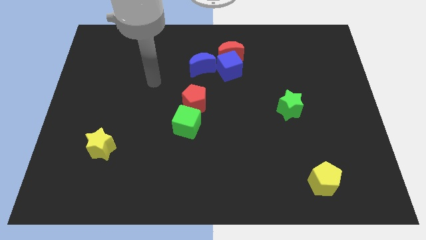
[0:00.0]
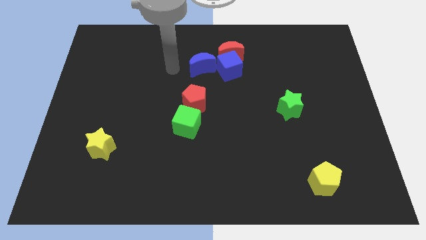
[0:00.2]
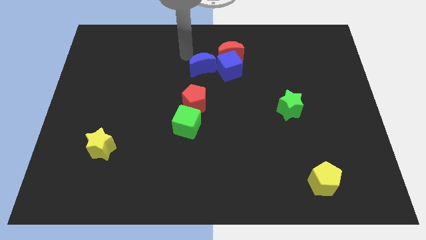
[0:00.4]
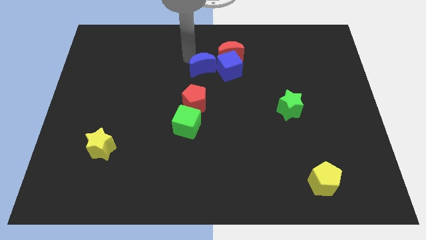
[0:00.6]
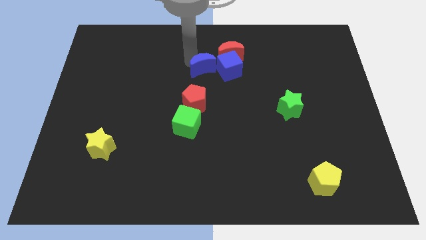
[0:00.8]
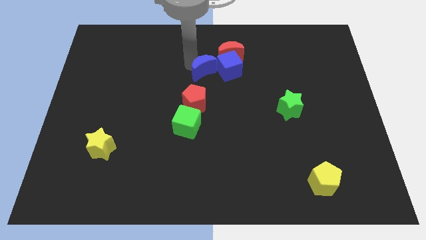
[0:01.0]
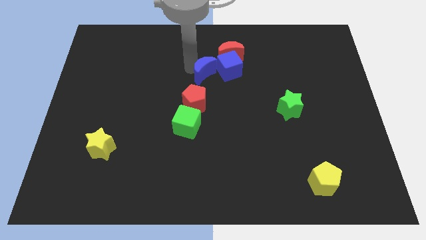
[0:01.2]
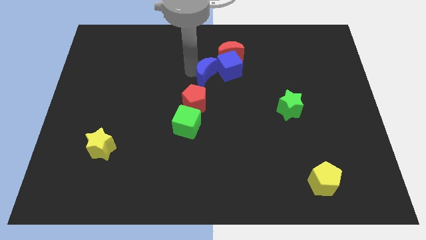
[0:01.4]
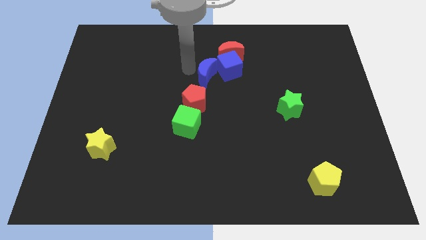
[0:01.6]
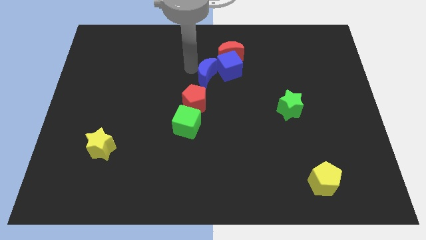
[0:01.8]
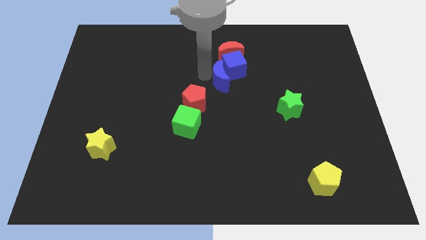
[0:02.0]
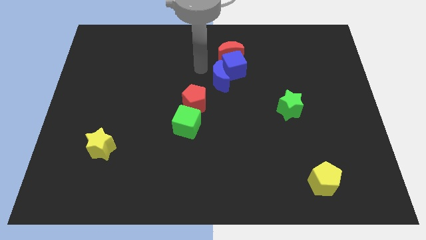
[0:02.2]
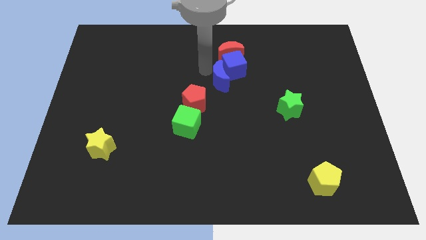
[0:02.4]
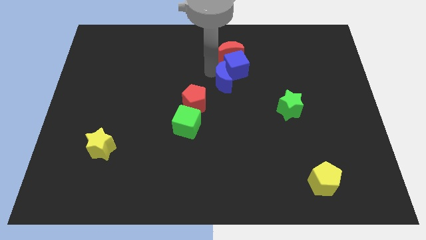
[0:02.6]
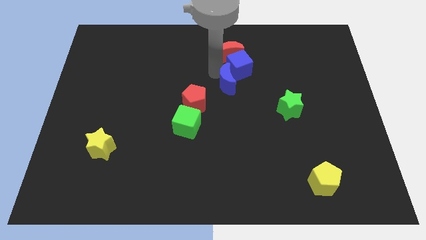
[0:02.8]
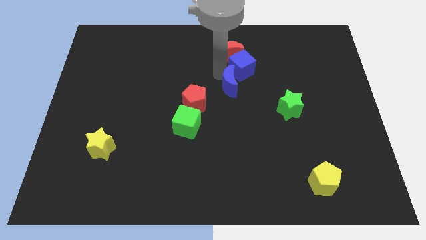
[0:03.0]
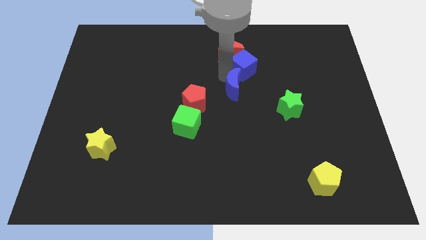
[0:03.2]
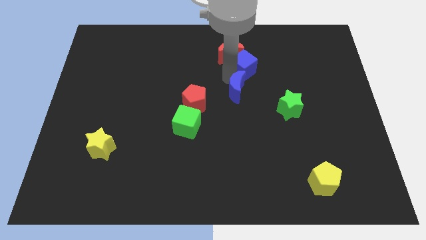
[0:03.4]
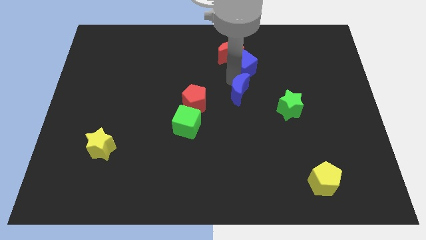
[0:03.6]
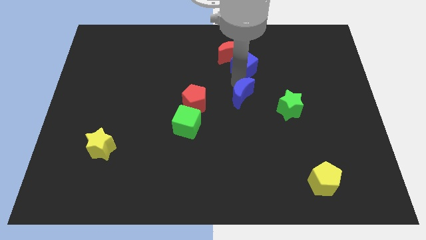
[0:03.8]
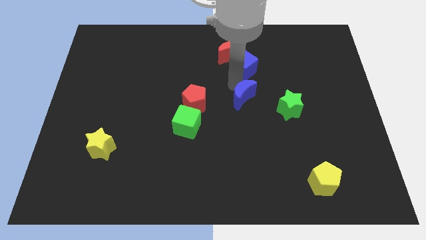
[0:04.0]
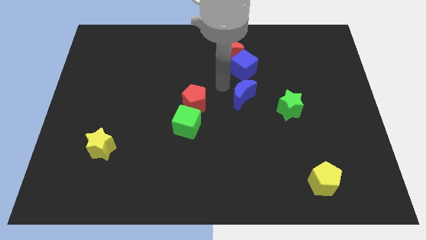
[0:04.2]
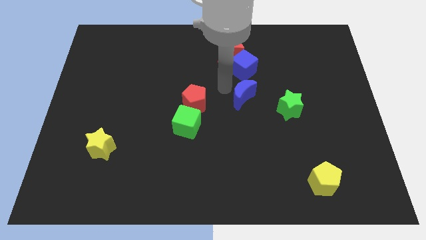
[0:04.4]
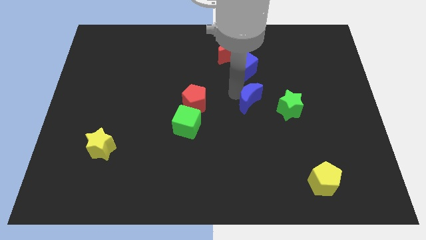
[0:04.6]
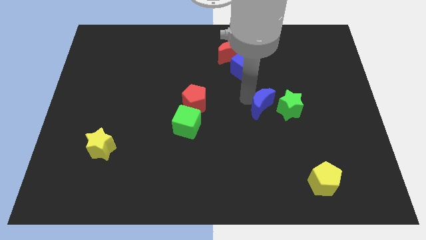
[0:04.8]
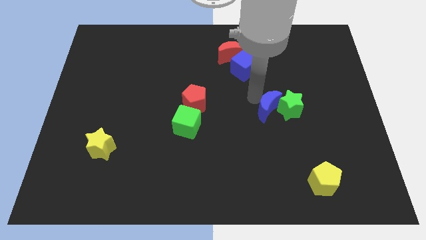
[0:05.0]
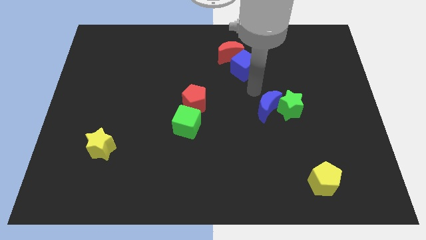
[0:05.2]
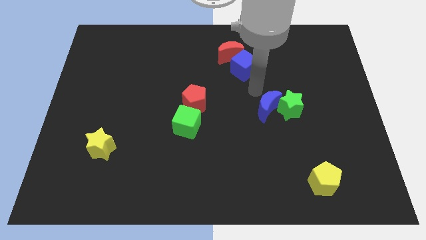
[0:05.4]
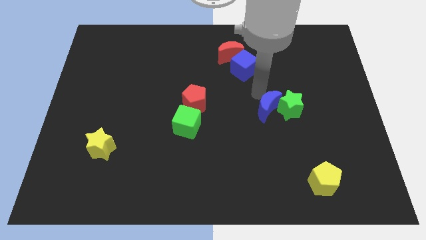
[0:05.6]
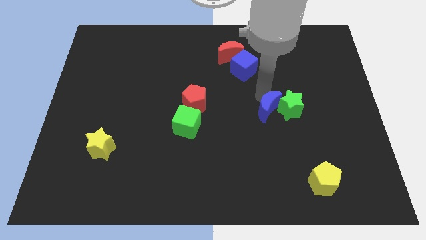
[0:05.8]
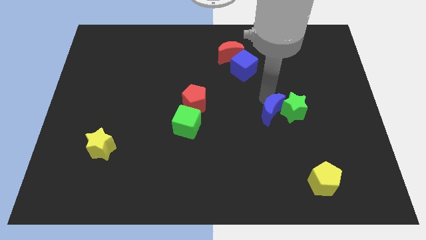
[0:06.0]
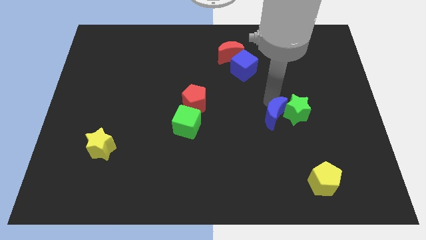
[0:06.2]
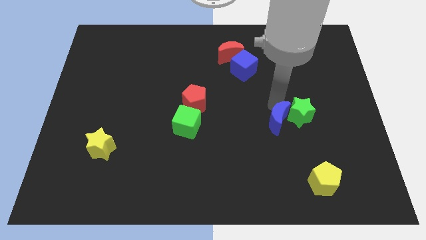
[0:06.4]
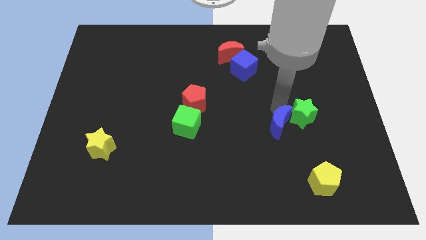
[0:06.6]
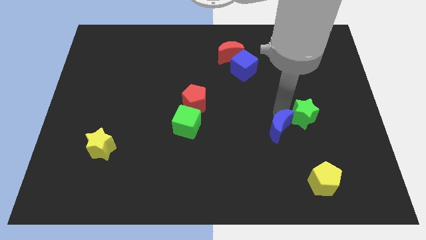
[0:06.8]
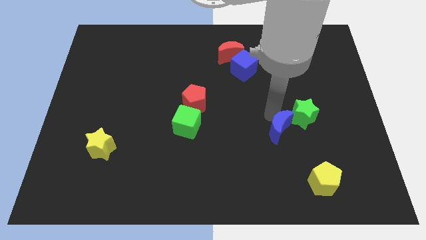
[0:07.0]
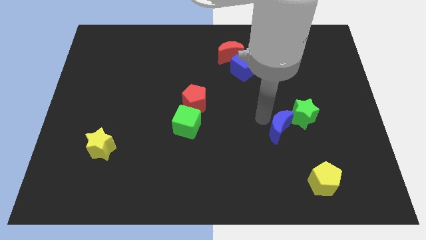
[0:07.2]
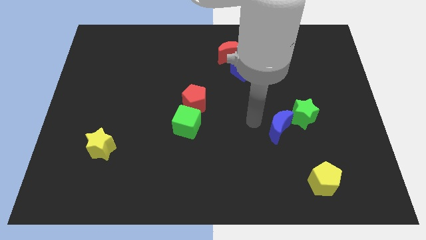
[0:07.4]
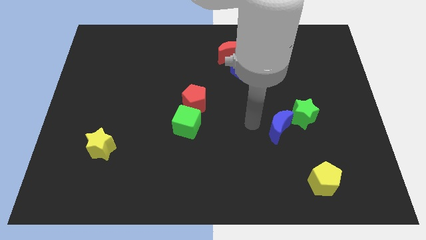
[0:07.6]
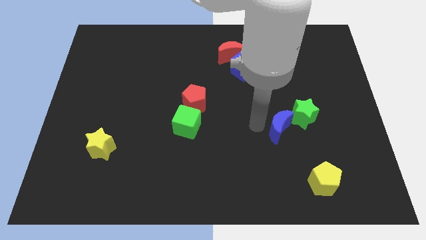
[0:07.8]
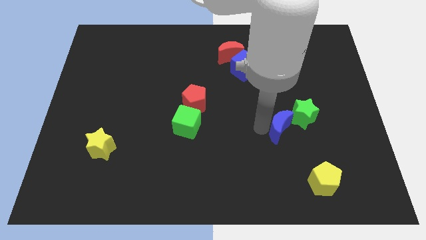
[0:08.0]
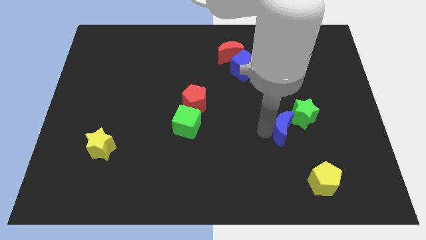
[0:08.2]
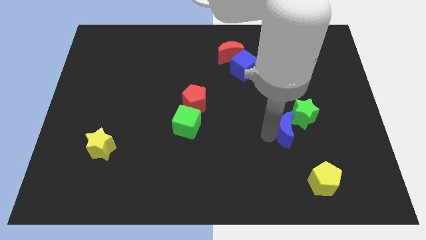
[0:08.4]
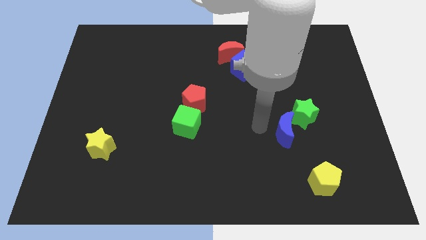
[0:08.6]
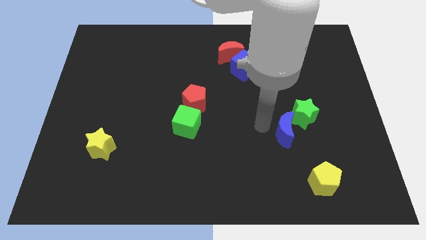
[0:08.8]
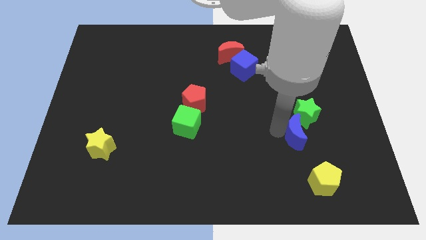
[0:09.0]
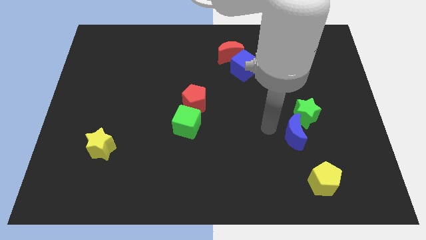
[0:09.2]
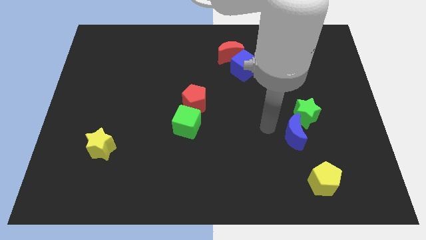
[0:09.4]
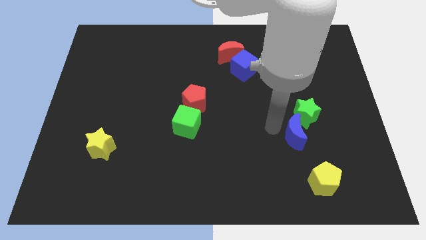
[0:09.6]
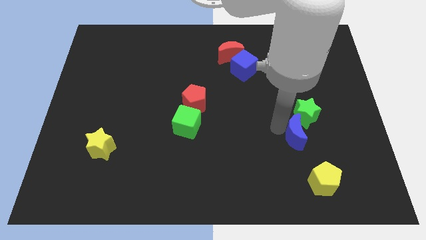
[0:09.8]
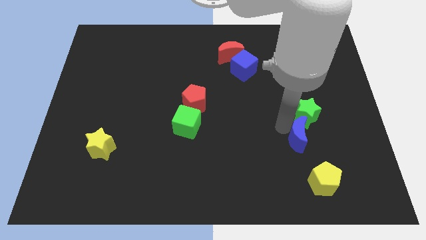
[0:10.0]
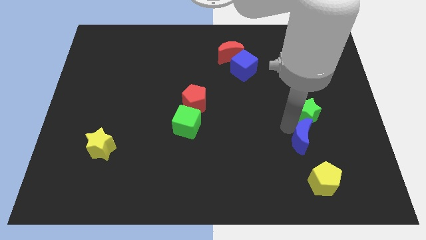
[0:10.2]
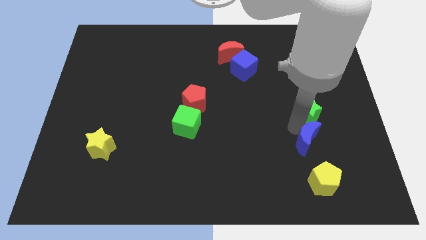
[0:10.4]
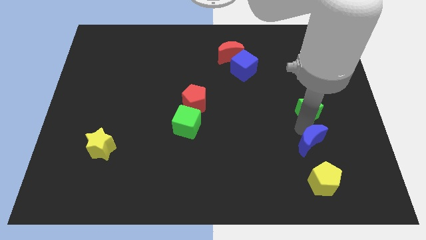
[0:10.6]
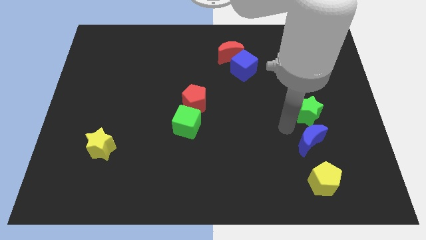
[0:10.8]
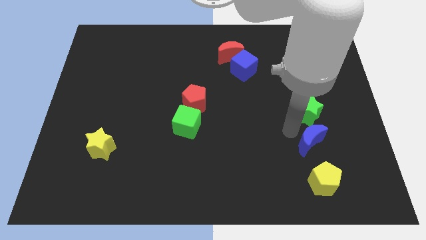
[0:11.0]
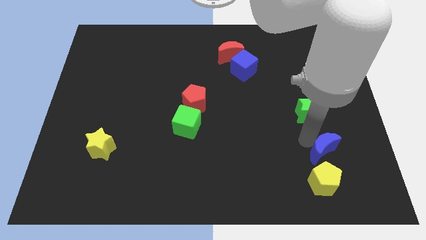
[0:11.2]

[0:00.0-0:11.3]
slide the blue moon diagonally up and to the right of the yellow pentagon

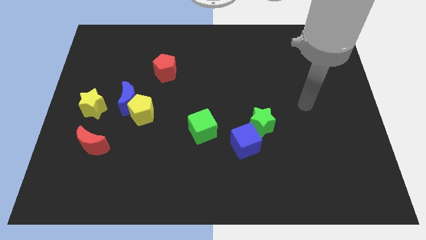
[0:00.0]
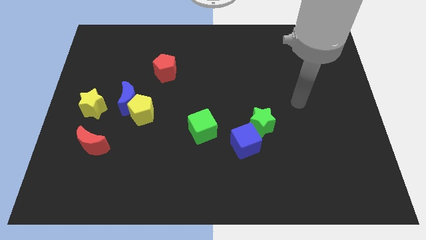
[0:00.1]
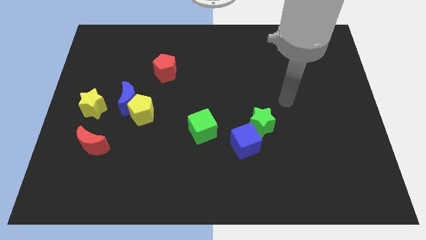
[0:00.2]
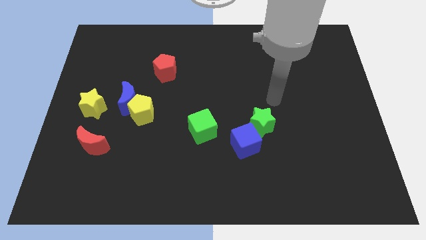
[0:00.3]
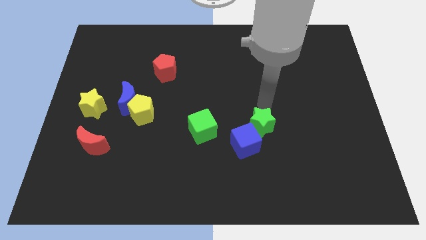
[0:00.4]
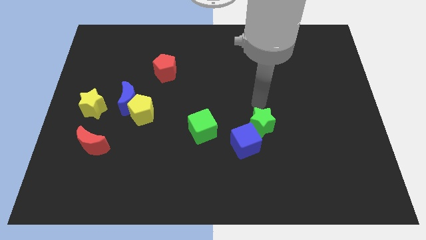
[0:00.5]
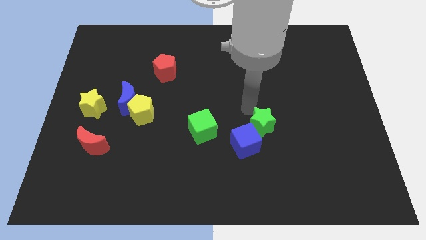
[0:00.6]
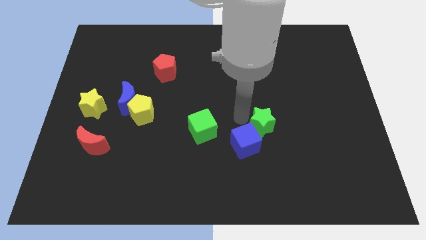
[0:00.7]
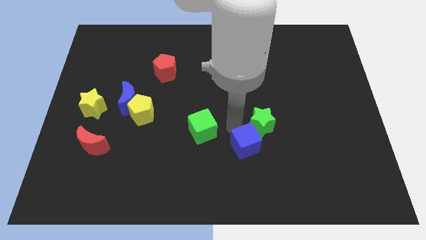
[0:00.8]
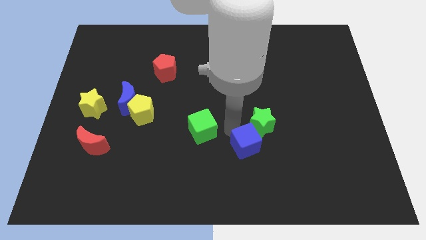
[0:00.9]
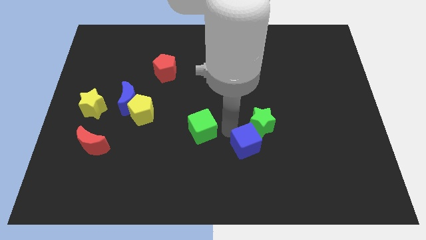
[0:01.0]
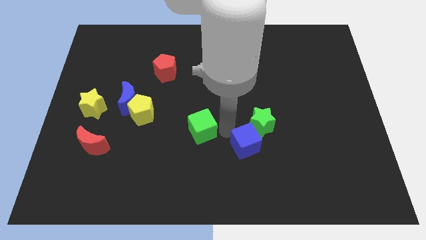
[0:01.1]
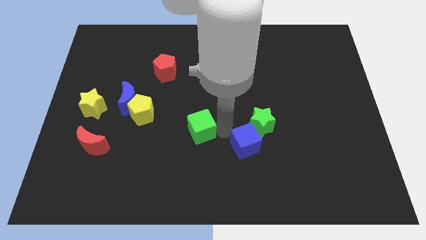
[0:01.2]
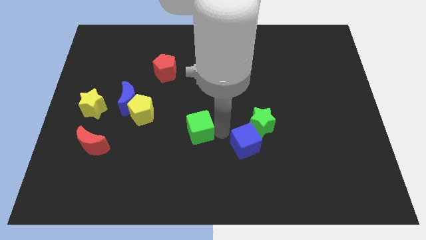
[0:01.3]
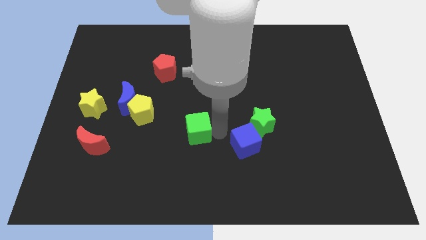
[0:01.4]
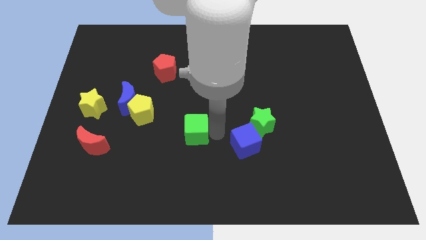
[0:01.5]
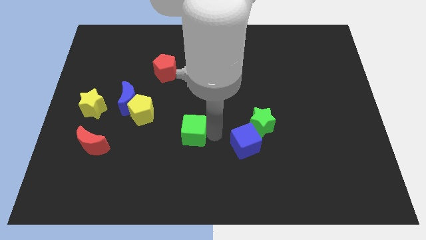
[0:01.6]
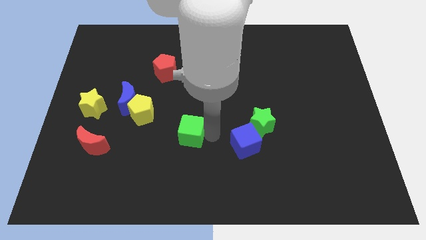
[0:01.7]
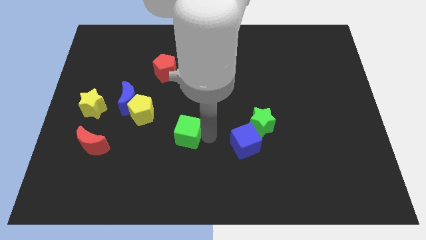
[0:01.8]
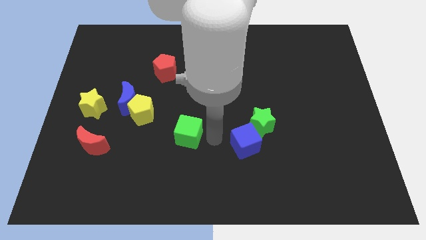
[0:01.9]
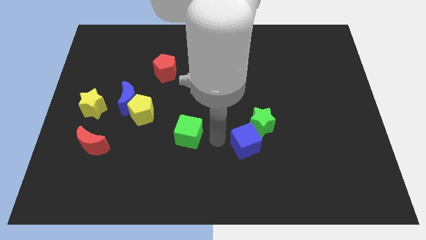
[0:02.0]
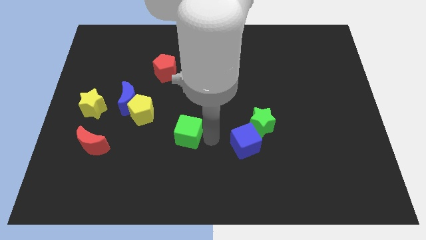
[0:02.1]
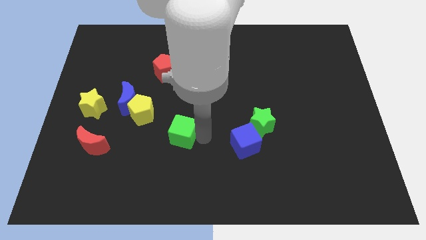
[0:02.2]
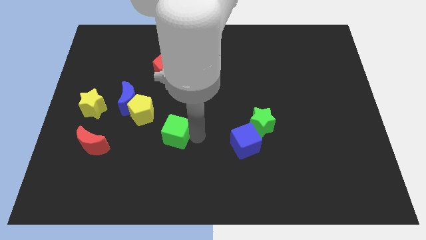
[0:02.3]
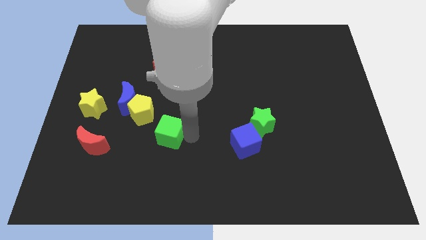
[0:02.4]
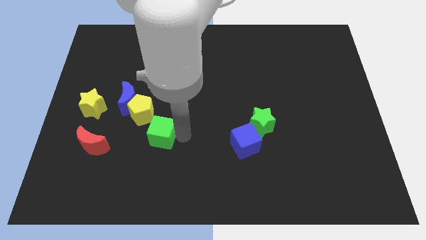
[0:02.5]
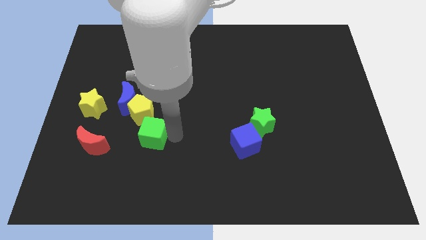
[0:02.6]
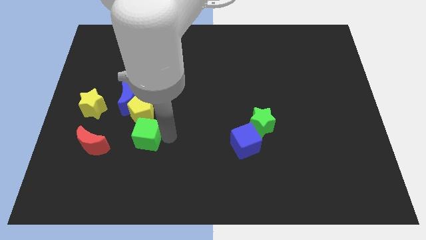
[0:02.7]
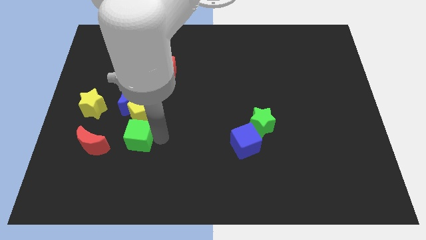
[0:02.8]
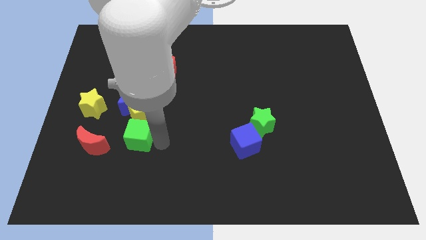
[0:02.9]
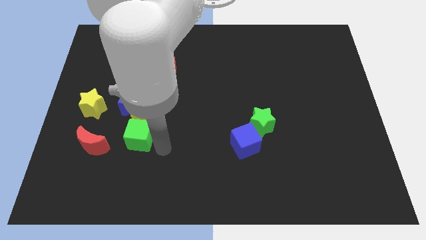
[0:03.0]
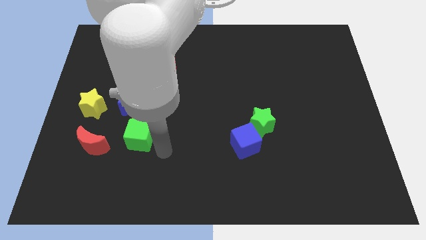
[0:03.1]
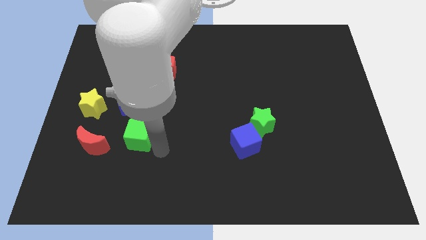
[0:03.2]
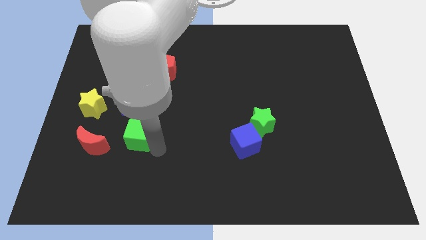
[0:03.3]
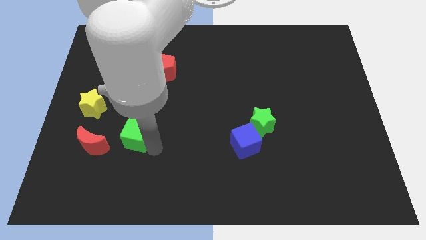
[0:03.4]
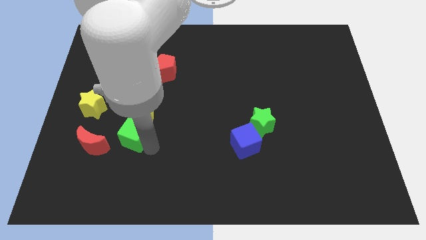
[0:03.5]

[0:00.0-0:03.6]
push the green cube diagonally up and to the right of the red moon
